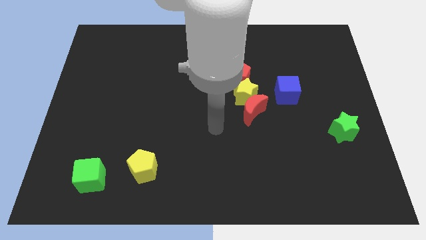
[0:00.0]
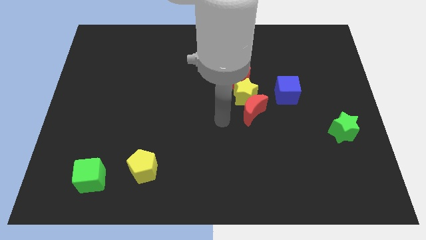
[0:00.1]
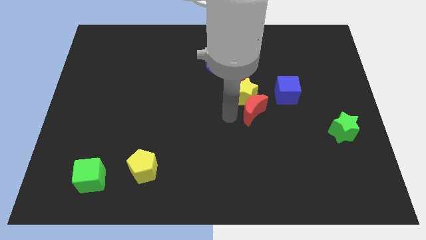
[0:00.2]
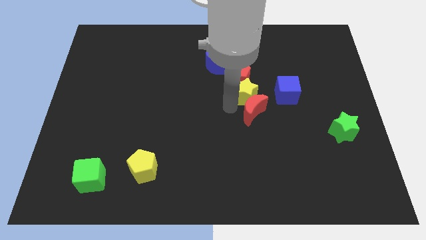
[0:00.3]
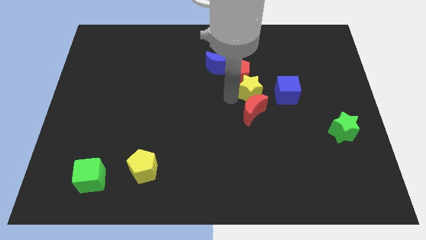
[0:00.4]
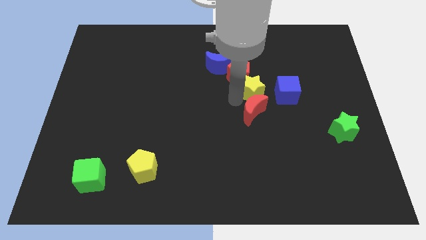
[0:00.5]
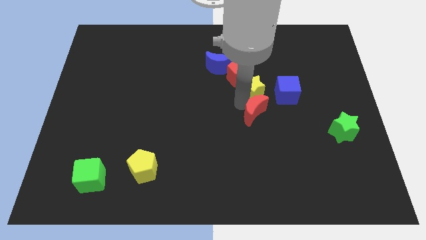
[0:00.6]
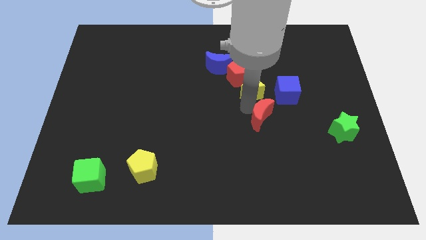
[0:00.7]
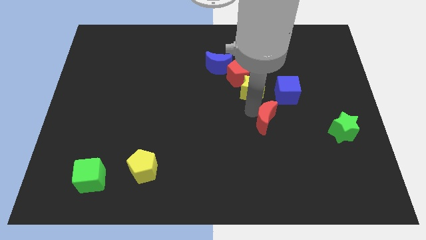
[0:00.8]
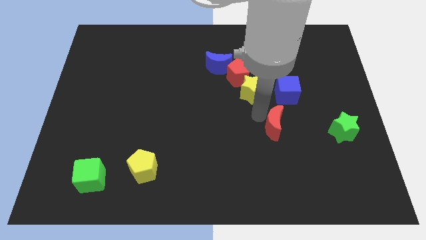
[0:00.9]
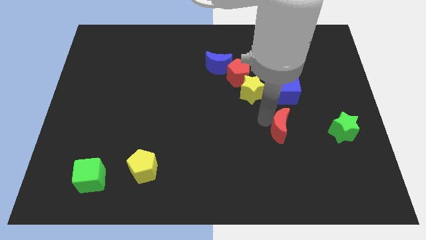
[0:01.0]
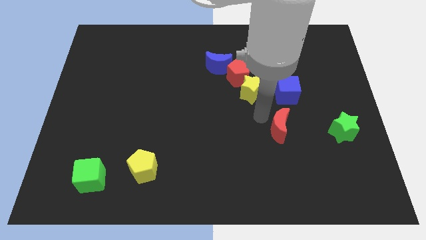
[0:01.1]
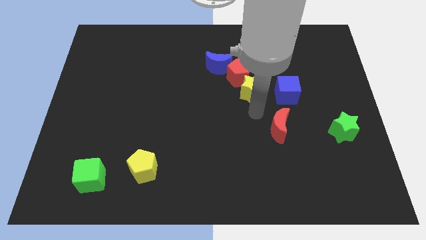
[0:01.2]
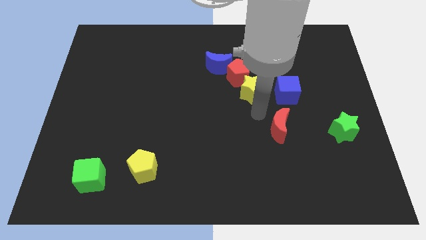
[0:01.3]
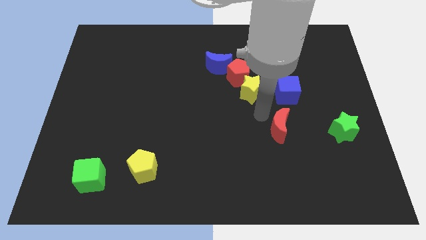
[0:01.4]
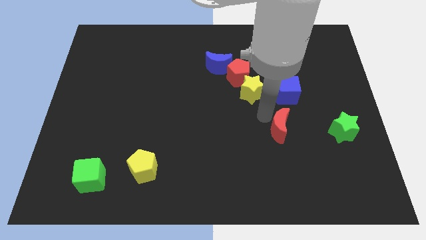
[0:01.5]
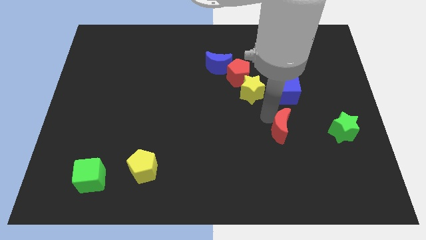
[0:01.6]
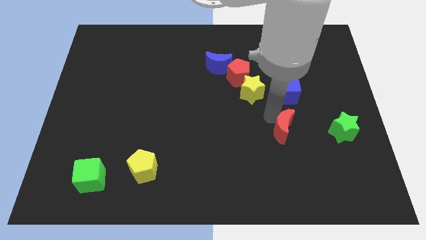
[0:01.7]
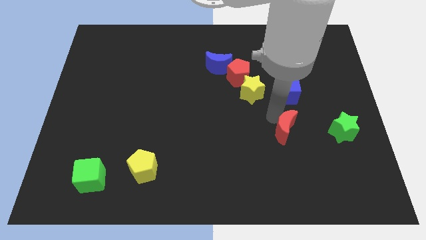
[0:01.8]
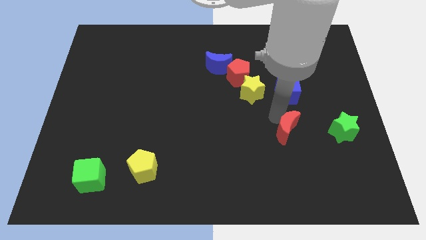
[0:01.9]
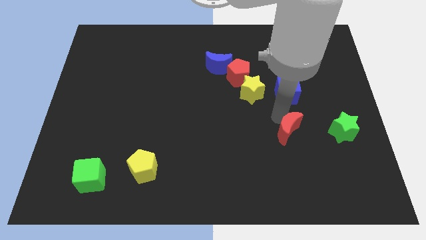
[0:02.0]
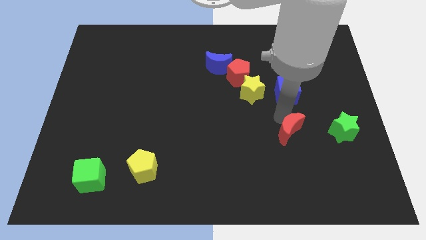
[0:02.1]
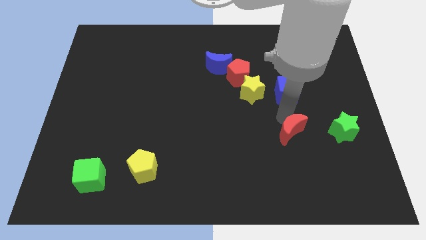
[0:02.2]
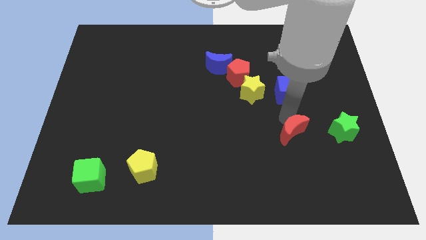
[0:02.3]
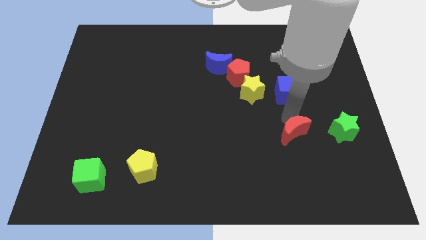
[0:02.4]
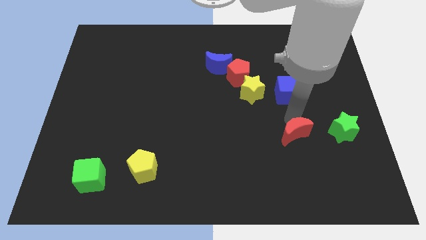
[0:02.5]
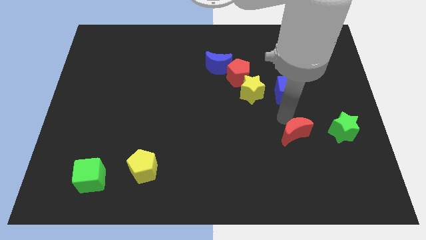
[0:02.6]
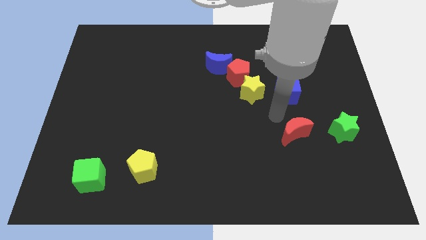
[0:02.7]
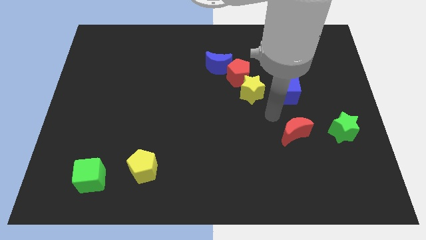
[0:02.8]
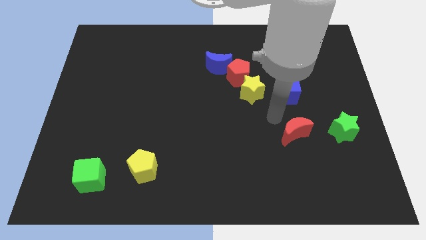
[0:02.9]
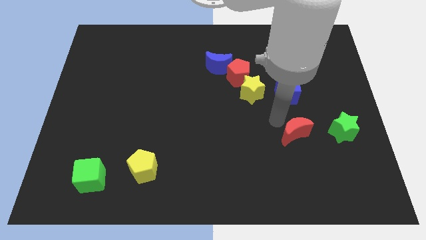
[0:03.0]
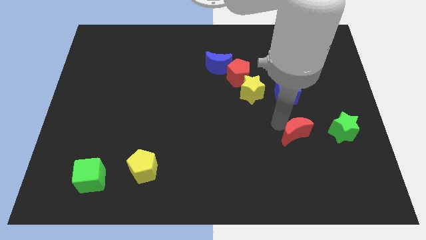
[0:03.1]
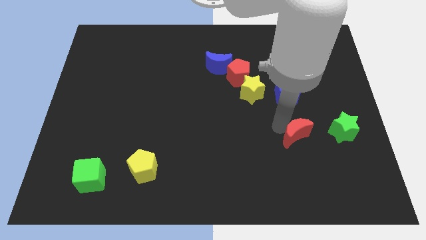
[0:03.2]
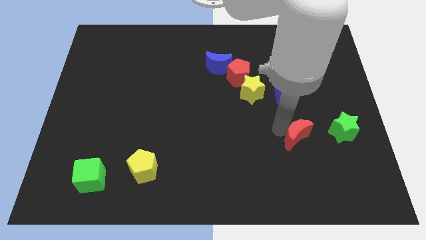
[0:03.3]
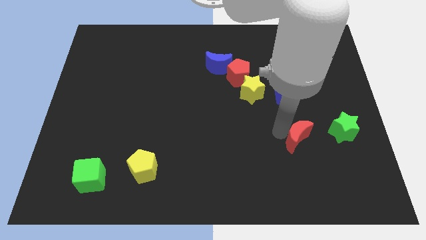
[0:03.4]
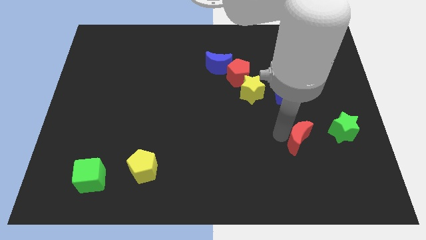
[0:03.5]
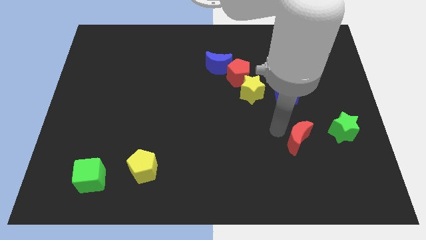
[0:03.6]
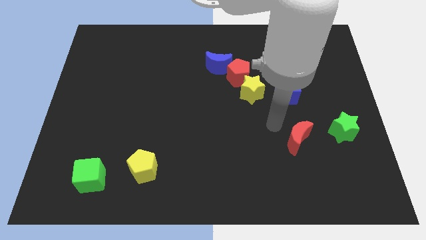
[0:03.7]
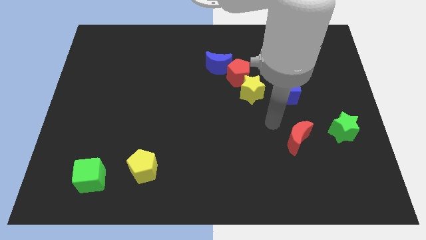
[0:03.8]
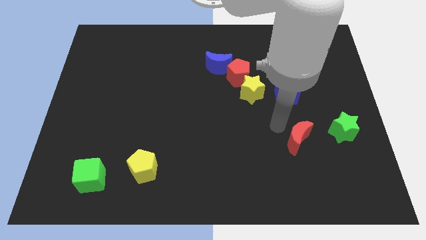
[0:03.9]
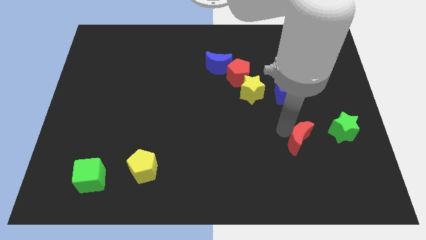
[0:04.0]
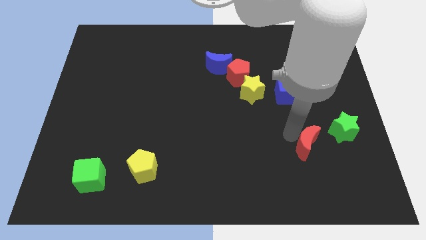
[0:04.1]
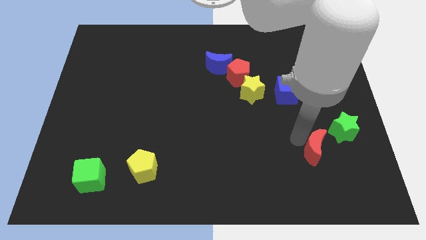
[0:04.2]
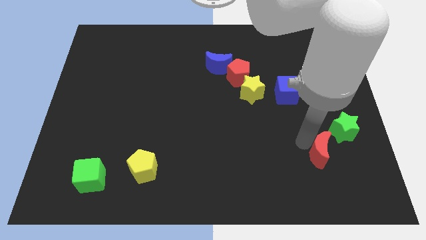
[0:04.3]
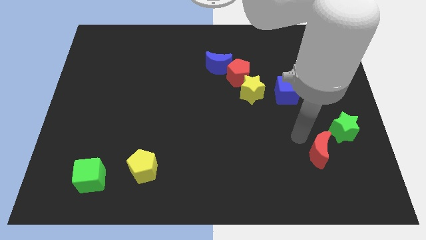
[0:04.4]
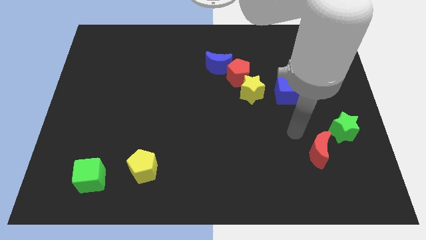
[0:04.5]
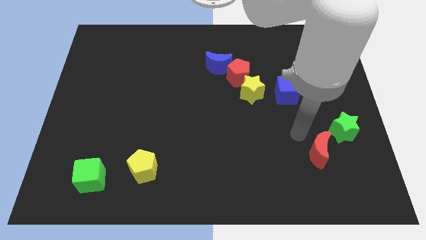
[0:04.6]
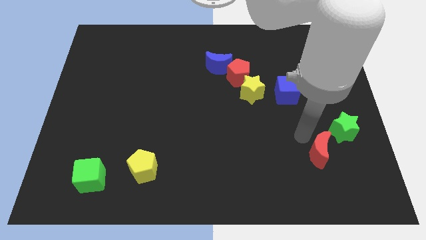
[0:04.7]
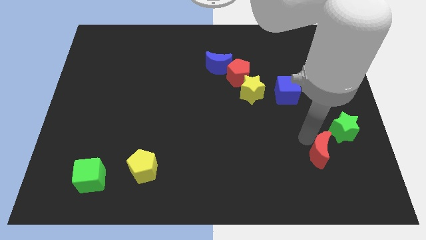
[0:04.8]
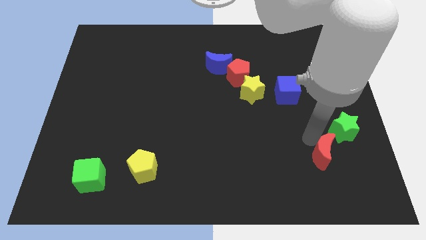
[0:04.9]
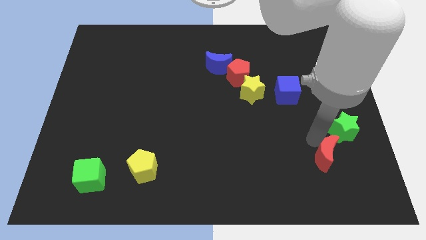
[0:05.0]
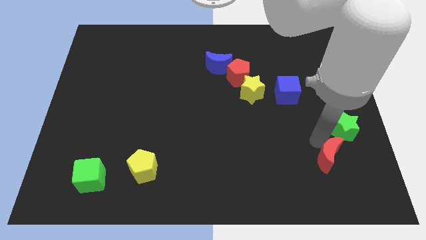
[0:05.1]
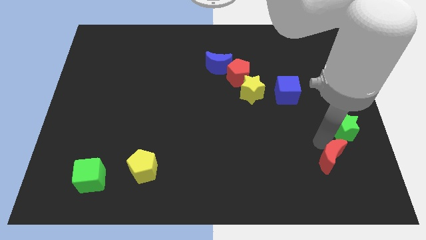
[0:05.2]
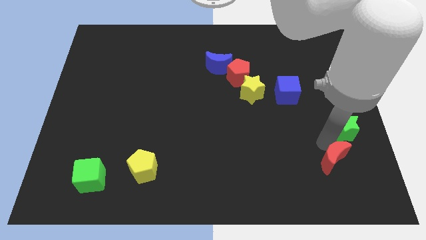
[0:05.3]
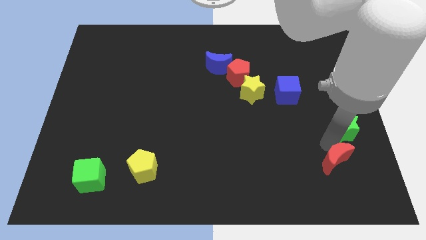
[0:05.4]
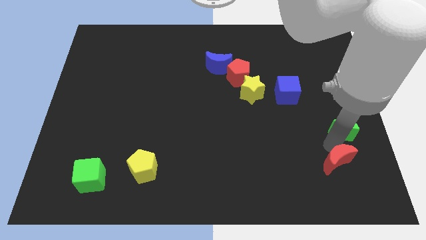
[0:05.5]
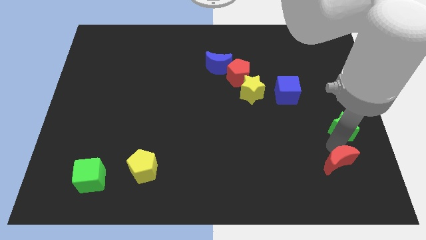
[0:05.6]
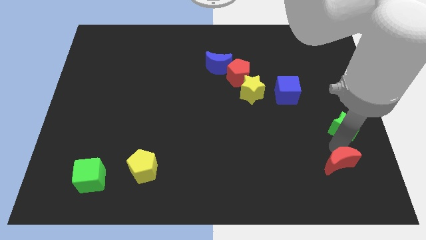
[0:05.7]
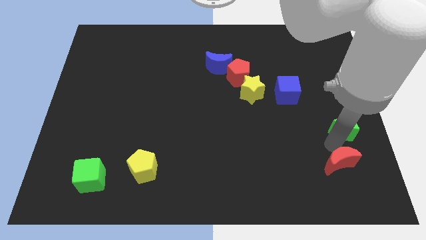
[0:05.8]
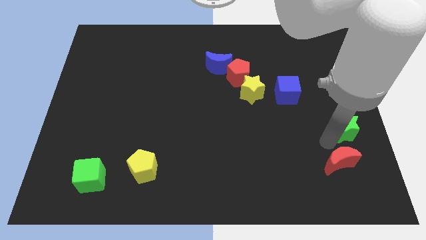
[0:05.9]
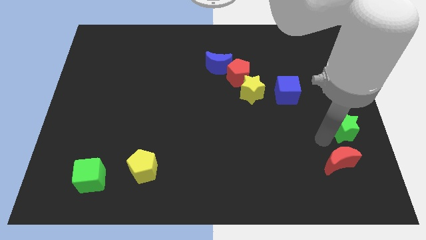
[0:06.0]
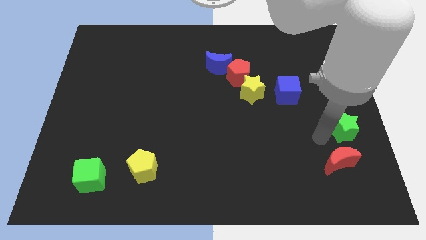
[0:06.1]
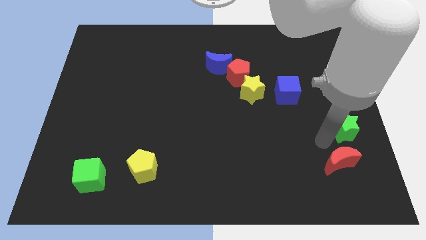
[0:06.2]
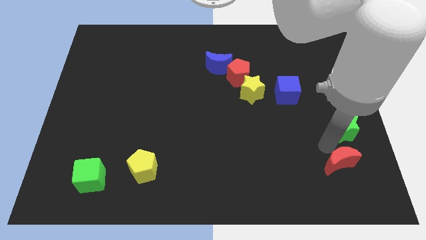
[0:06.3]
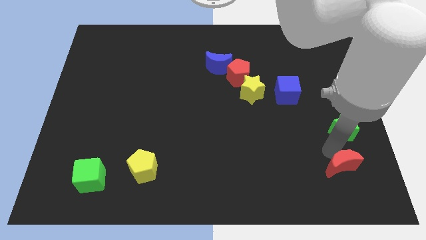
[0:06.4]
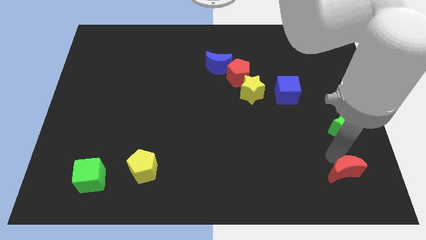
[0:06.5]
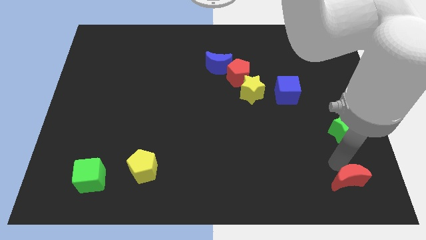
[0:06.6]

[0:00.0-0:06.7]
slide the red moon to the lower right corner
